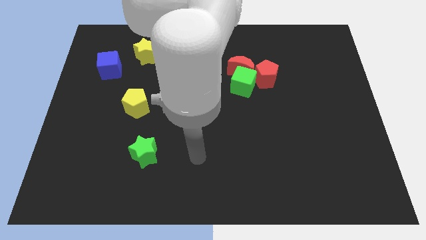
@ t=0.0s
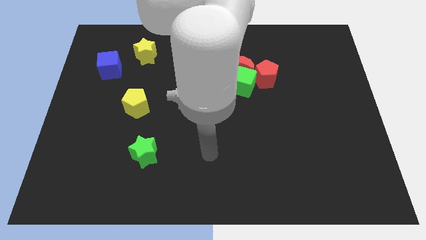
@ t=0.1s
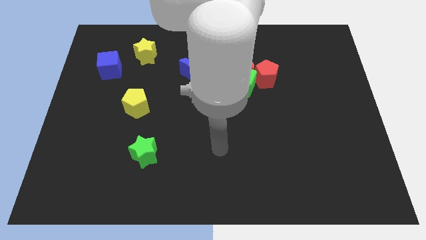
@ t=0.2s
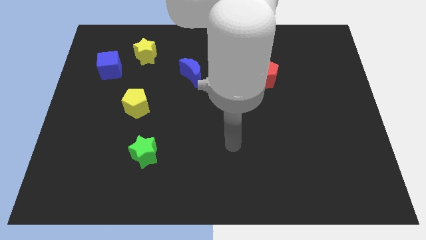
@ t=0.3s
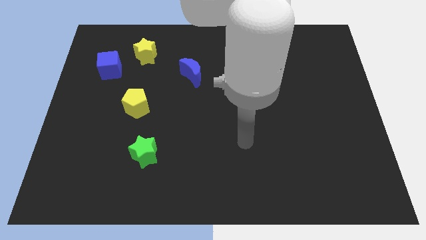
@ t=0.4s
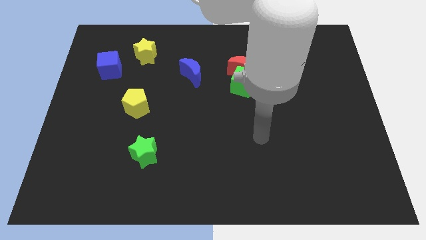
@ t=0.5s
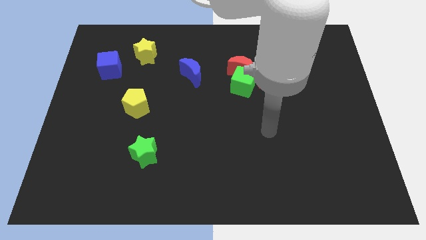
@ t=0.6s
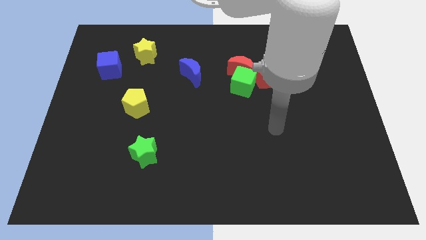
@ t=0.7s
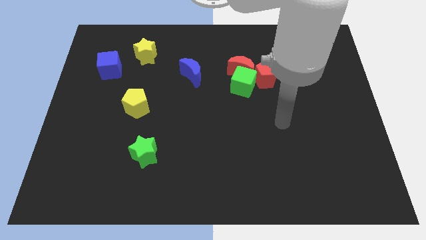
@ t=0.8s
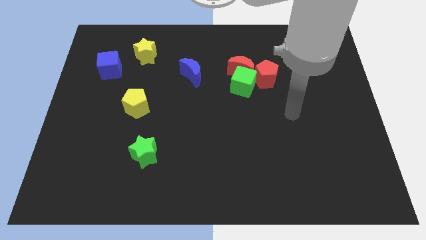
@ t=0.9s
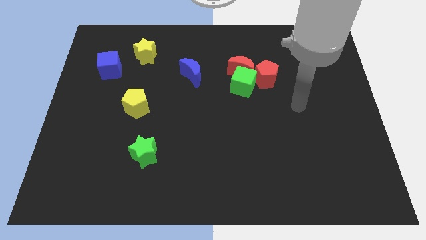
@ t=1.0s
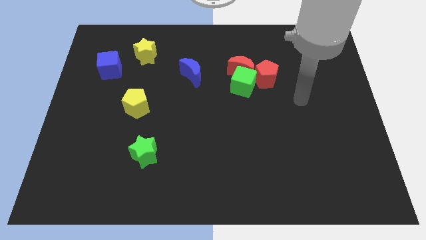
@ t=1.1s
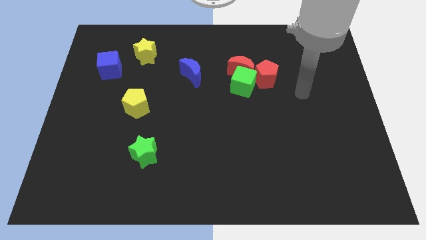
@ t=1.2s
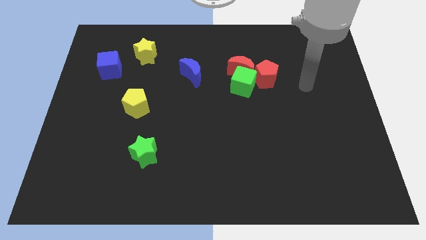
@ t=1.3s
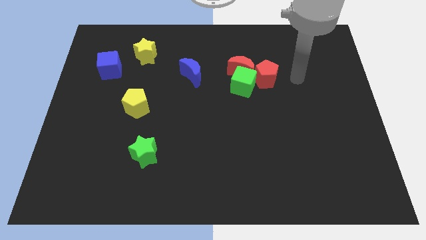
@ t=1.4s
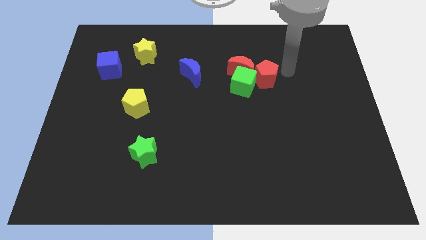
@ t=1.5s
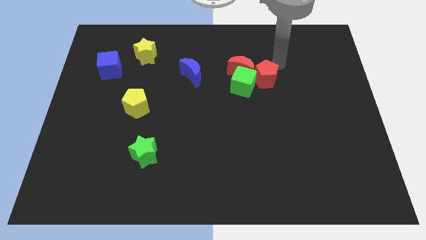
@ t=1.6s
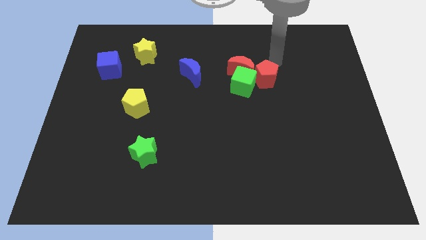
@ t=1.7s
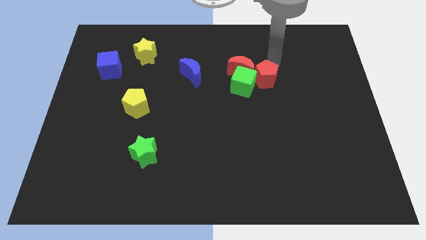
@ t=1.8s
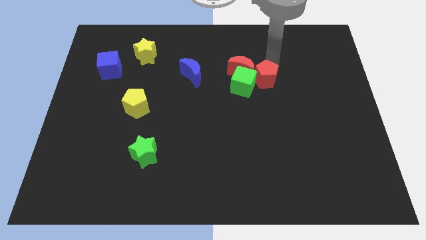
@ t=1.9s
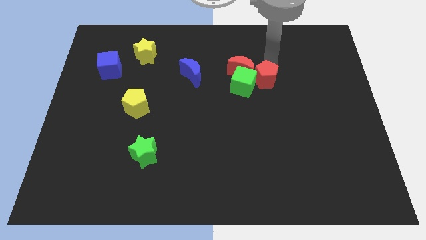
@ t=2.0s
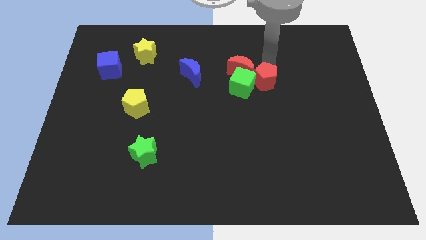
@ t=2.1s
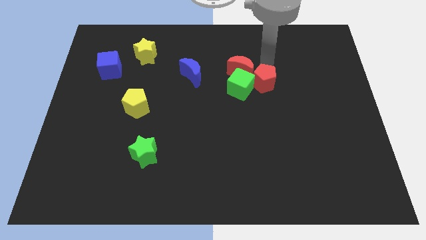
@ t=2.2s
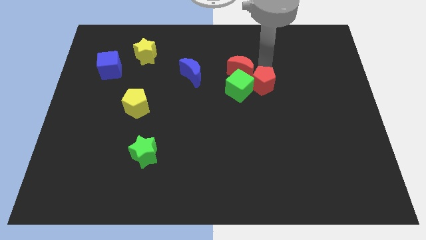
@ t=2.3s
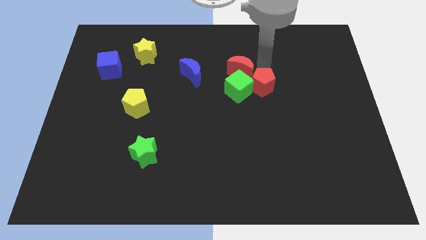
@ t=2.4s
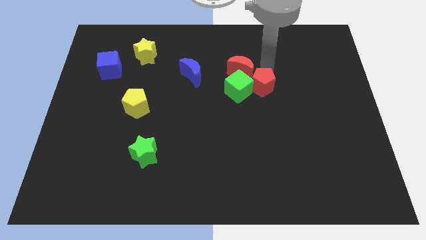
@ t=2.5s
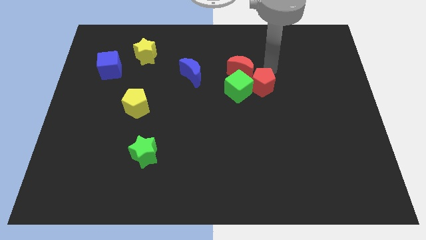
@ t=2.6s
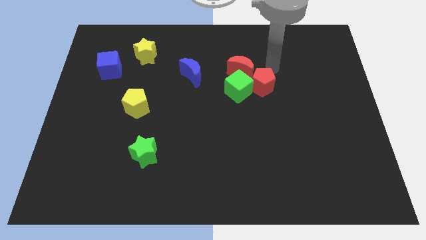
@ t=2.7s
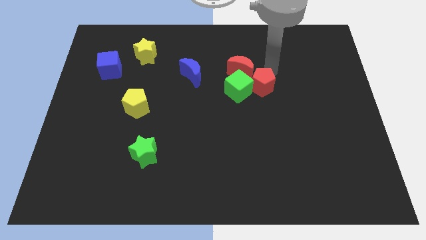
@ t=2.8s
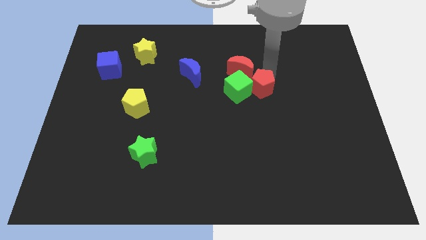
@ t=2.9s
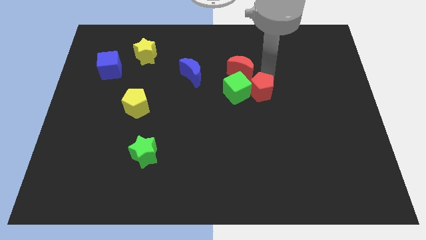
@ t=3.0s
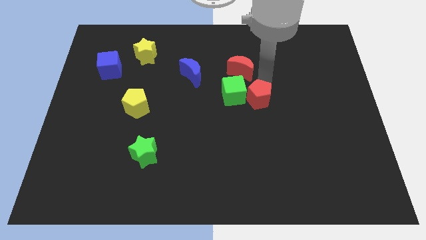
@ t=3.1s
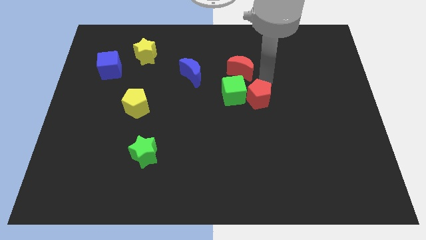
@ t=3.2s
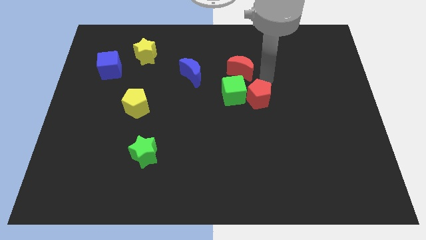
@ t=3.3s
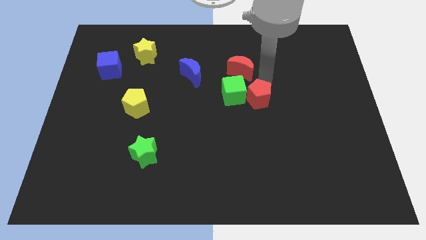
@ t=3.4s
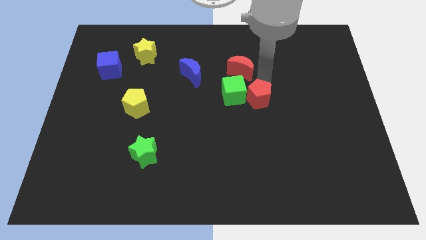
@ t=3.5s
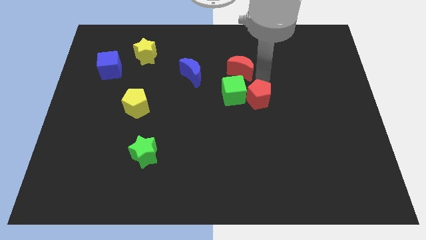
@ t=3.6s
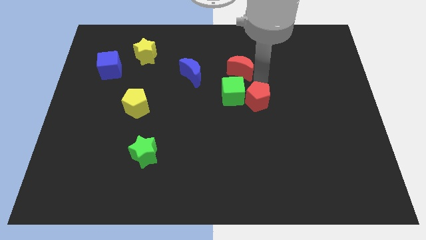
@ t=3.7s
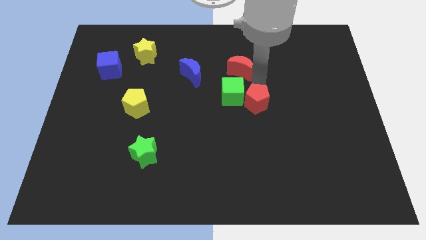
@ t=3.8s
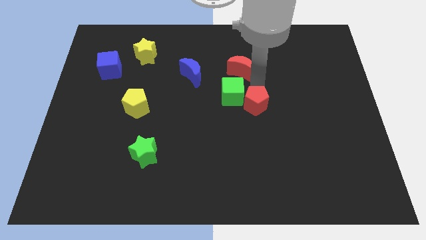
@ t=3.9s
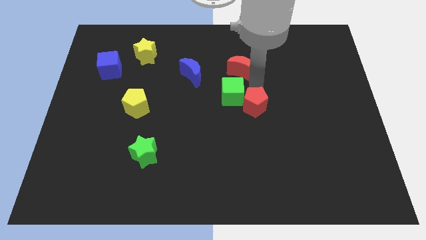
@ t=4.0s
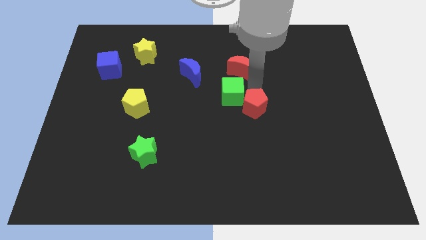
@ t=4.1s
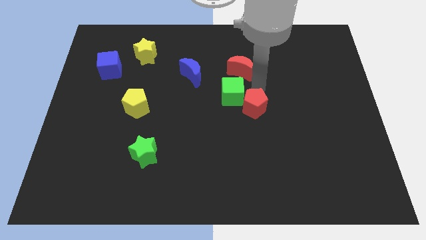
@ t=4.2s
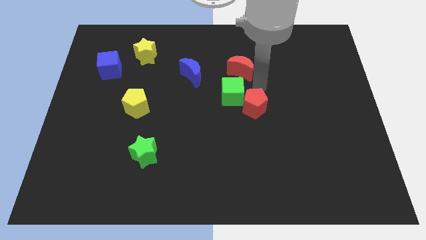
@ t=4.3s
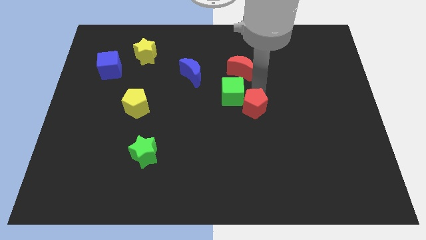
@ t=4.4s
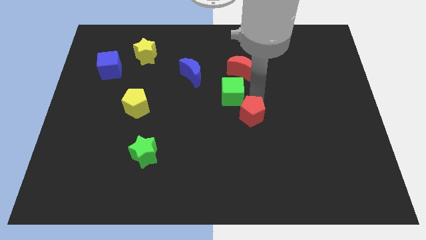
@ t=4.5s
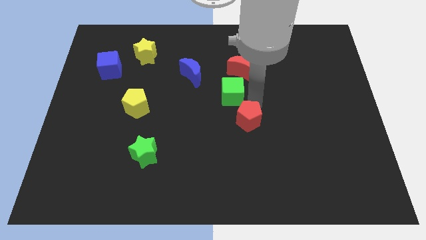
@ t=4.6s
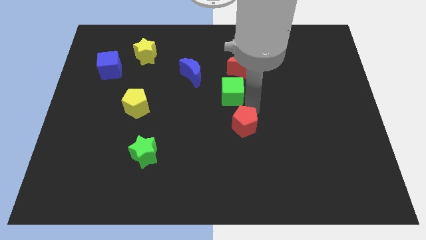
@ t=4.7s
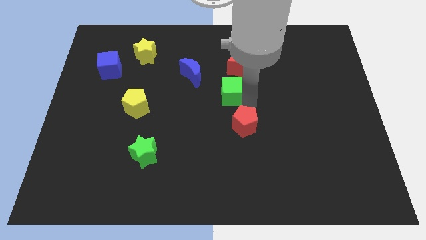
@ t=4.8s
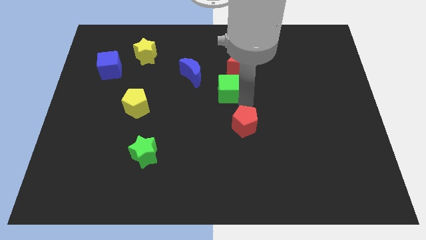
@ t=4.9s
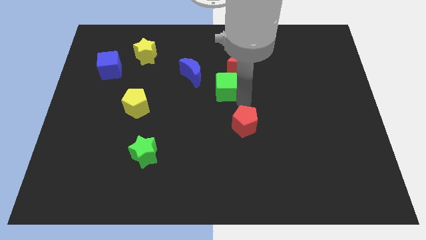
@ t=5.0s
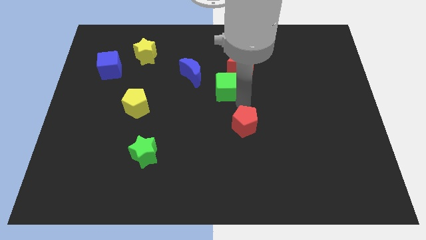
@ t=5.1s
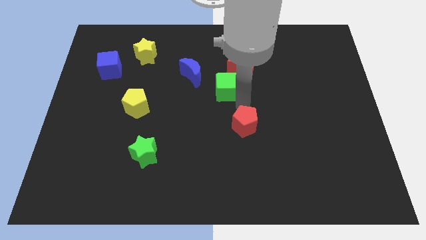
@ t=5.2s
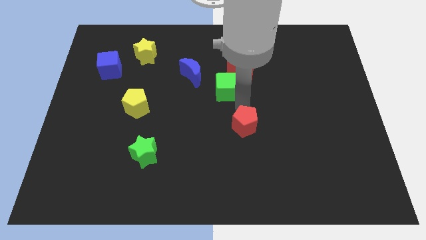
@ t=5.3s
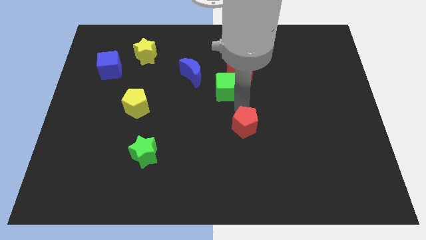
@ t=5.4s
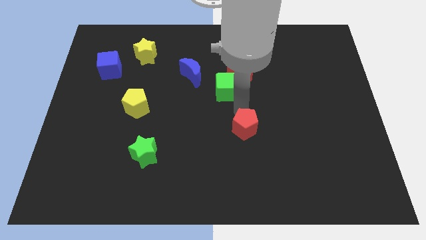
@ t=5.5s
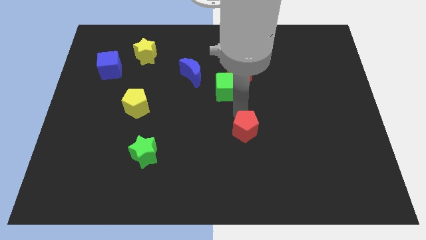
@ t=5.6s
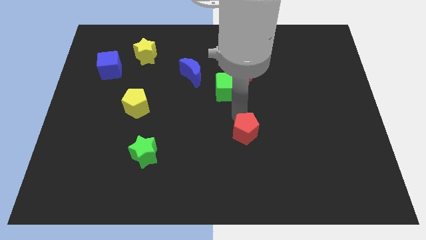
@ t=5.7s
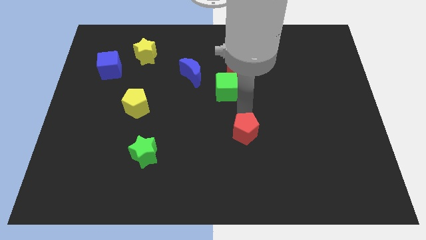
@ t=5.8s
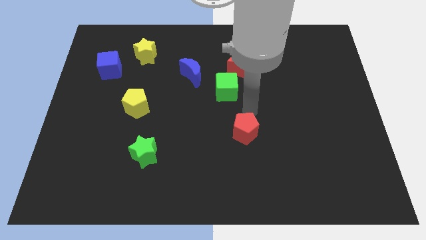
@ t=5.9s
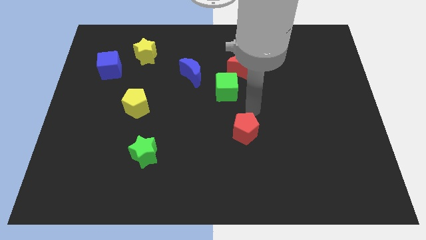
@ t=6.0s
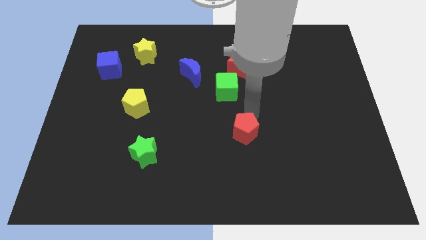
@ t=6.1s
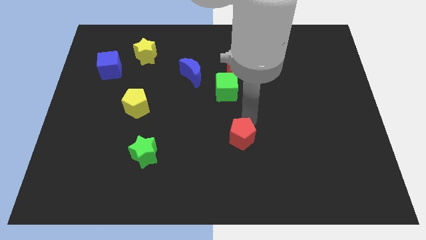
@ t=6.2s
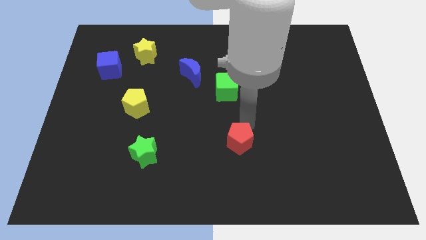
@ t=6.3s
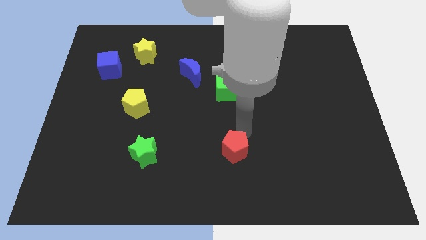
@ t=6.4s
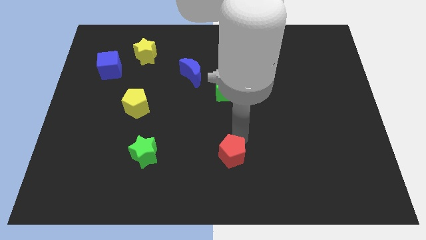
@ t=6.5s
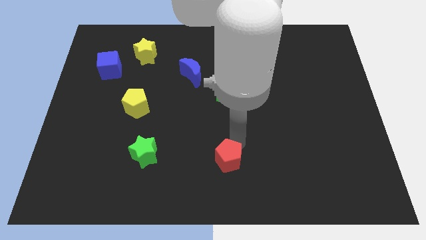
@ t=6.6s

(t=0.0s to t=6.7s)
slide the red pentagon to the bottom side

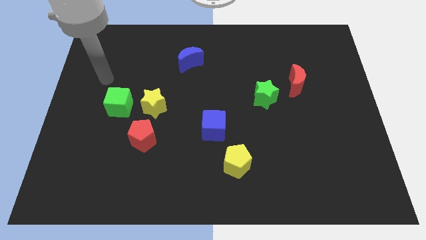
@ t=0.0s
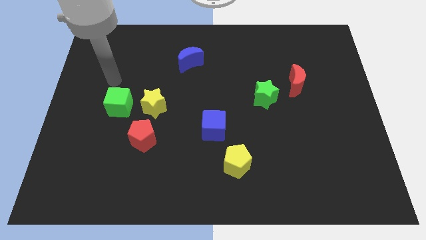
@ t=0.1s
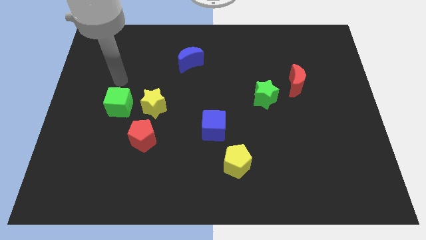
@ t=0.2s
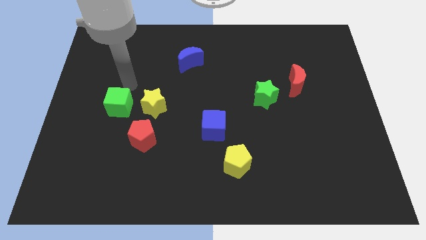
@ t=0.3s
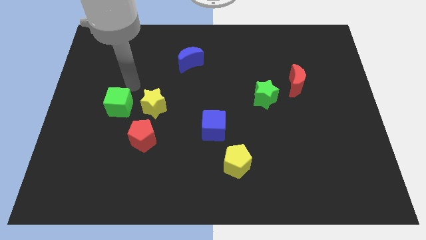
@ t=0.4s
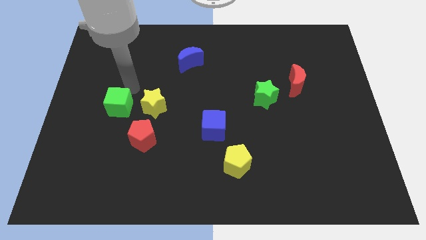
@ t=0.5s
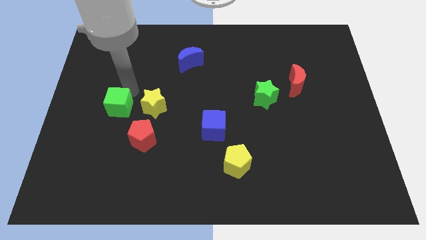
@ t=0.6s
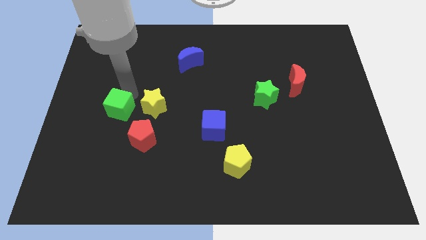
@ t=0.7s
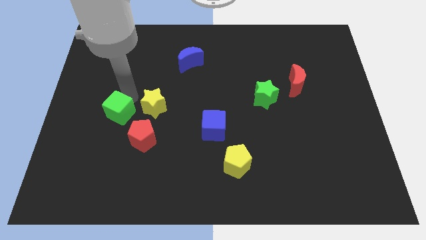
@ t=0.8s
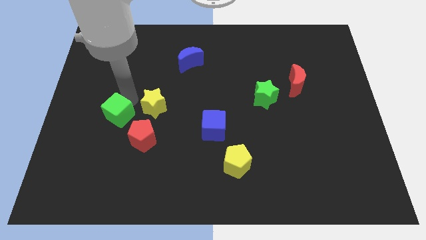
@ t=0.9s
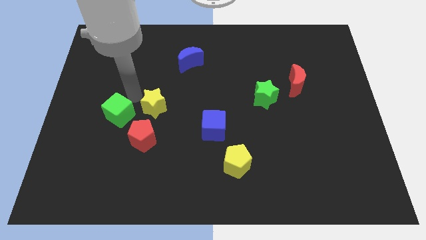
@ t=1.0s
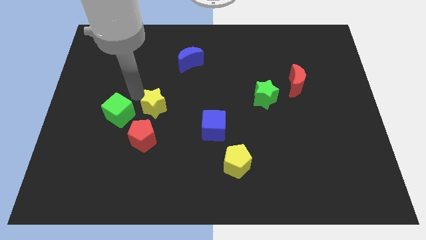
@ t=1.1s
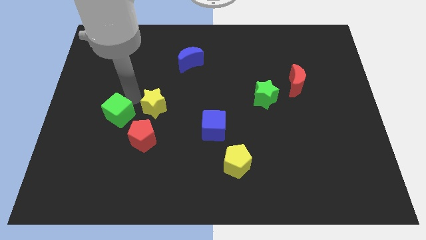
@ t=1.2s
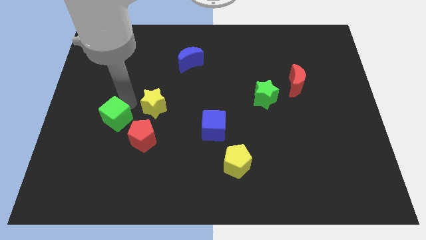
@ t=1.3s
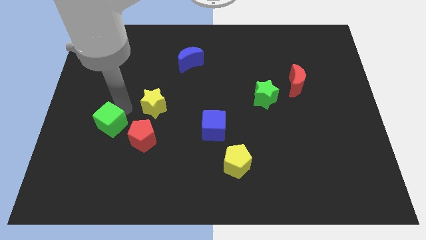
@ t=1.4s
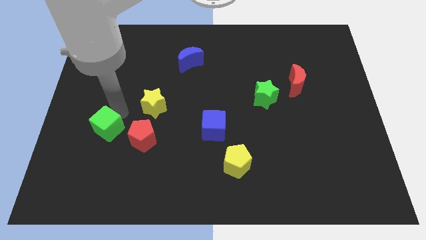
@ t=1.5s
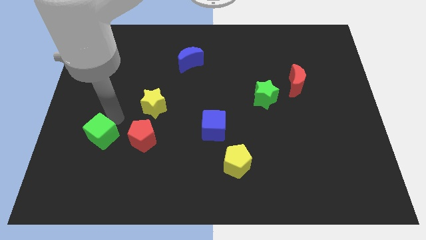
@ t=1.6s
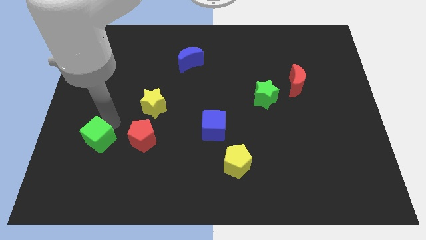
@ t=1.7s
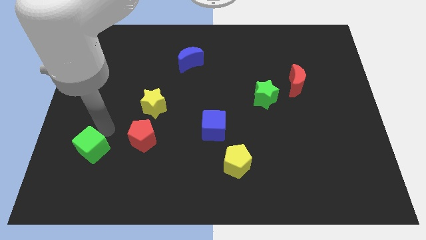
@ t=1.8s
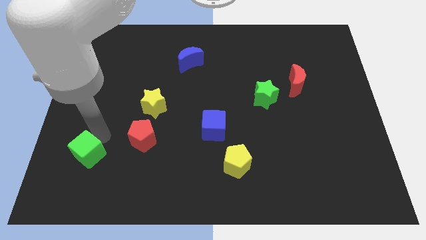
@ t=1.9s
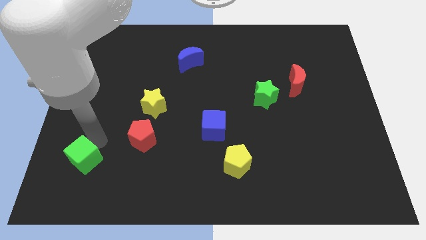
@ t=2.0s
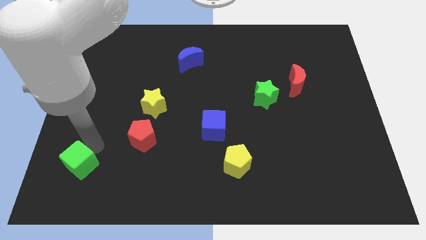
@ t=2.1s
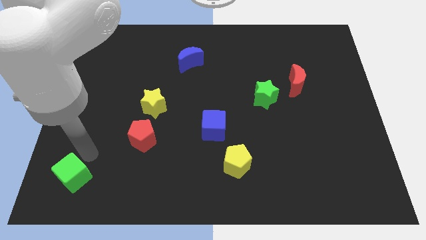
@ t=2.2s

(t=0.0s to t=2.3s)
put the green cube to the bottom left

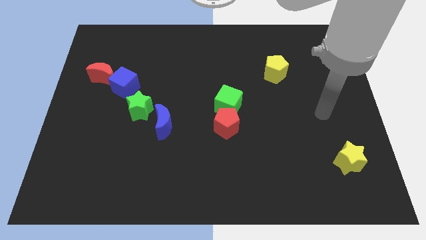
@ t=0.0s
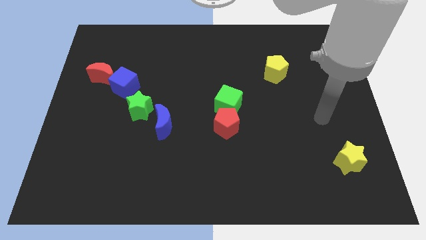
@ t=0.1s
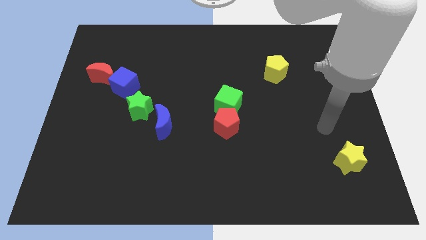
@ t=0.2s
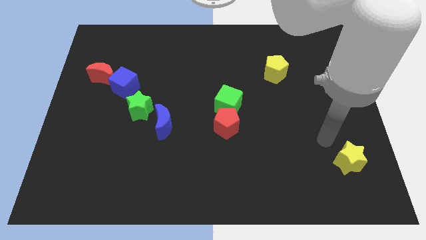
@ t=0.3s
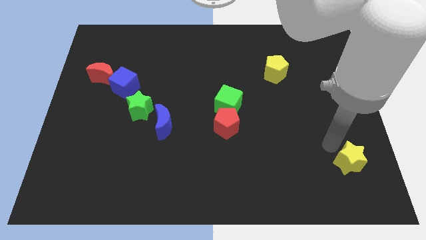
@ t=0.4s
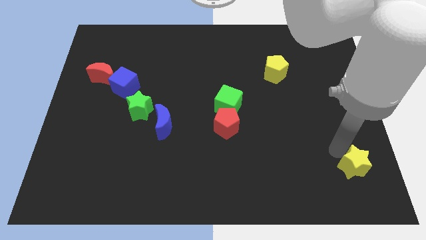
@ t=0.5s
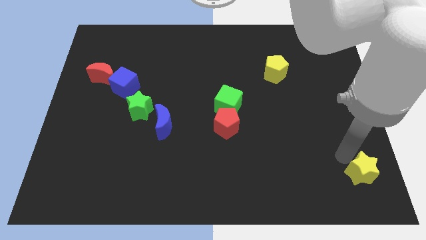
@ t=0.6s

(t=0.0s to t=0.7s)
push the yellow star to the bottom right of the board
